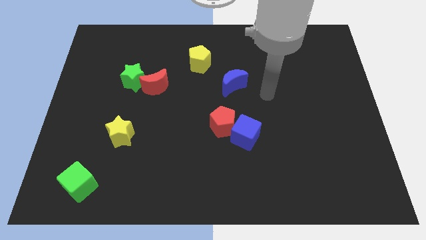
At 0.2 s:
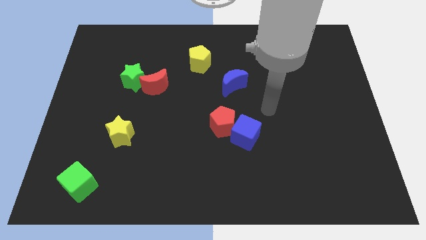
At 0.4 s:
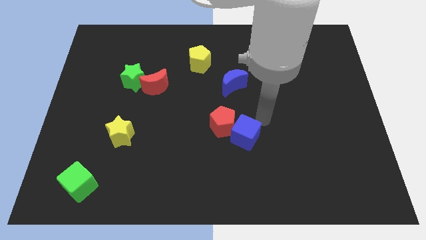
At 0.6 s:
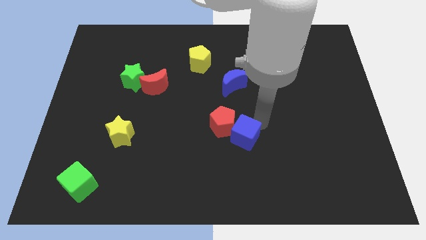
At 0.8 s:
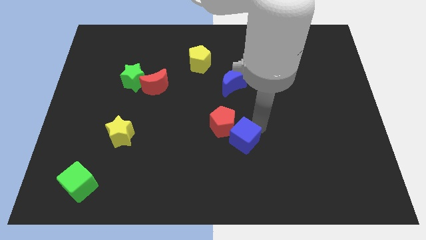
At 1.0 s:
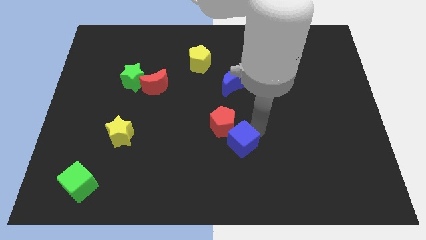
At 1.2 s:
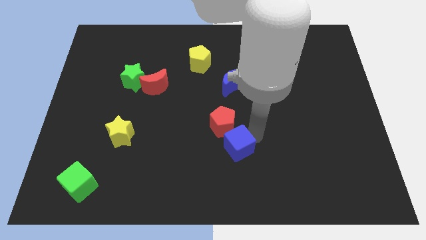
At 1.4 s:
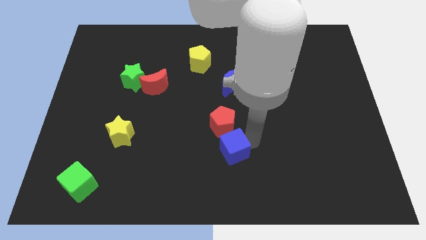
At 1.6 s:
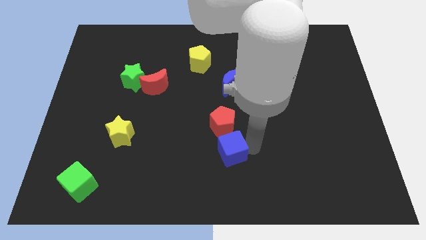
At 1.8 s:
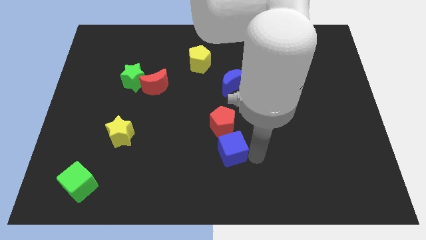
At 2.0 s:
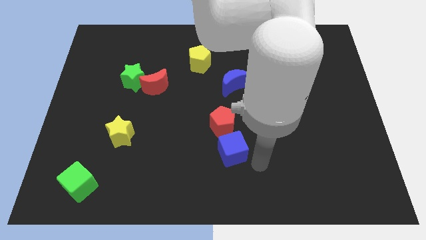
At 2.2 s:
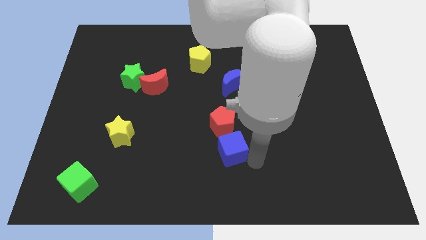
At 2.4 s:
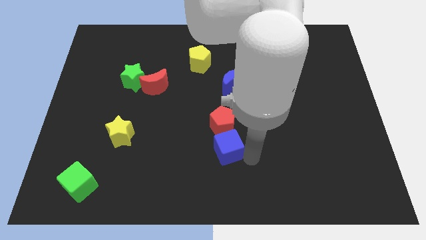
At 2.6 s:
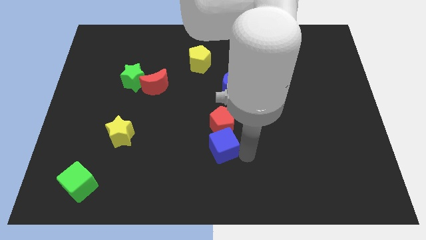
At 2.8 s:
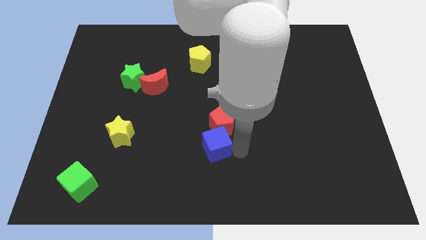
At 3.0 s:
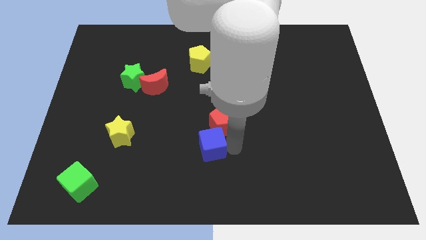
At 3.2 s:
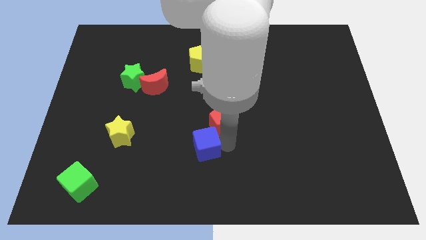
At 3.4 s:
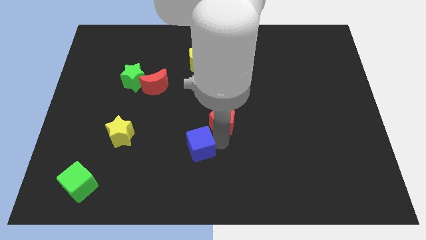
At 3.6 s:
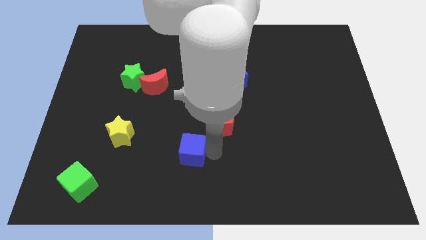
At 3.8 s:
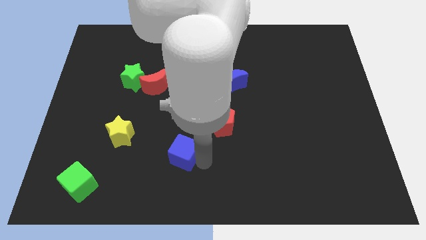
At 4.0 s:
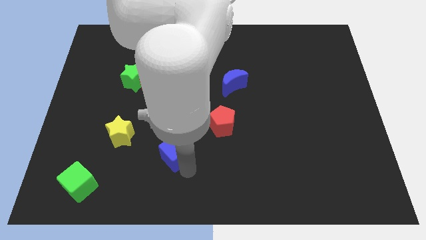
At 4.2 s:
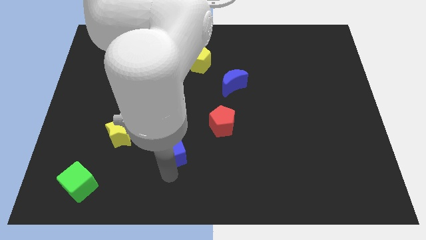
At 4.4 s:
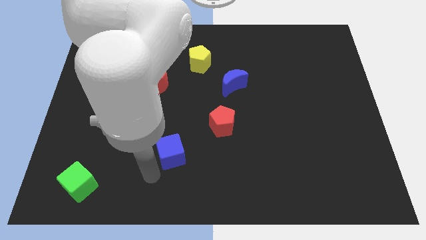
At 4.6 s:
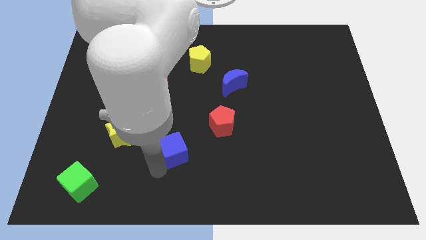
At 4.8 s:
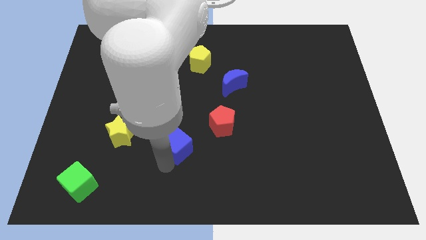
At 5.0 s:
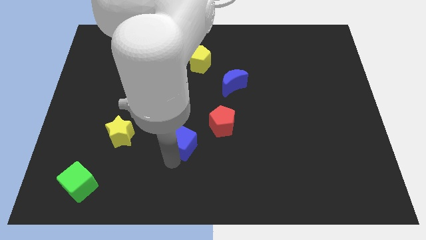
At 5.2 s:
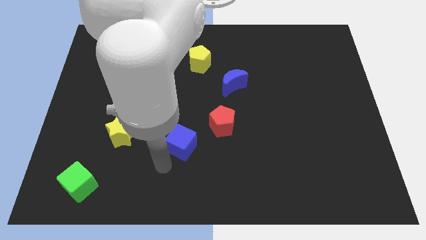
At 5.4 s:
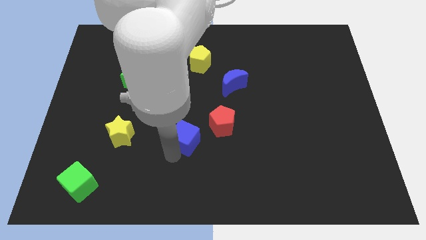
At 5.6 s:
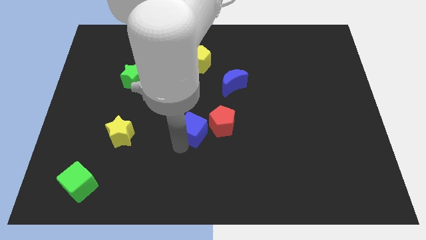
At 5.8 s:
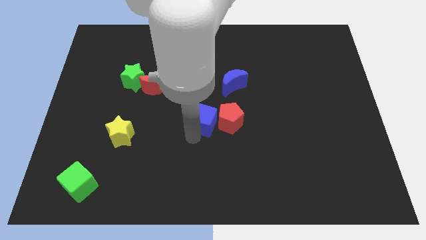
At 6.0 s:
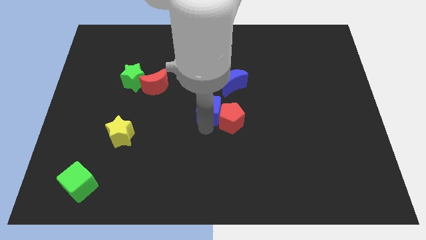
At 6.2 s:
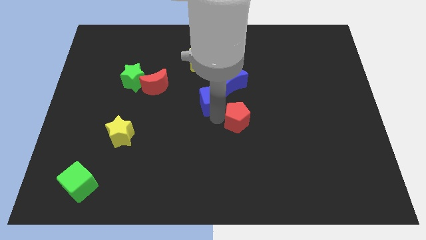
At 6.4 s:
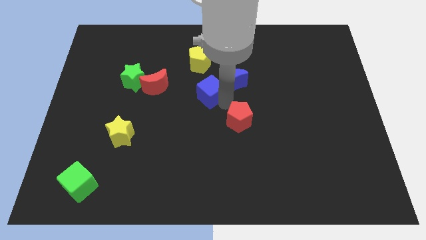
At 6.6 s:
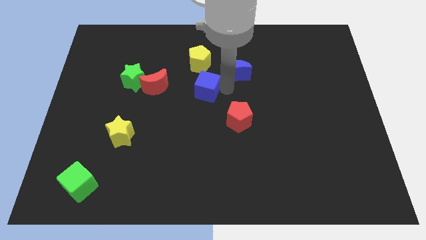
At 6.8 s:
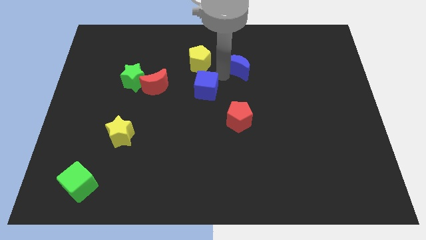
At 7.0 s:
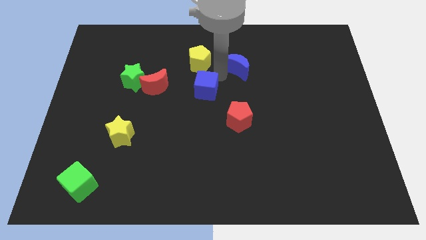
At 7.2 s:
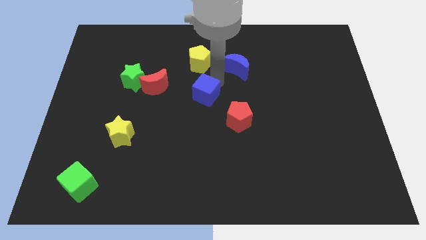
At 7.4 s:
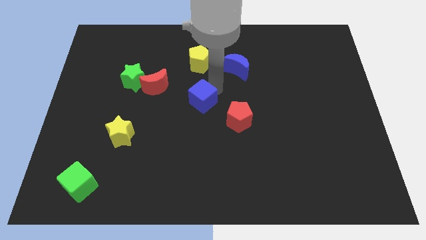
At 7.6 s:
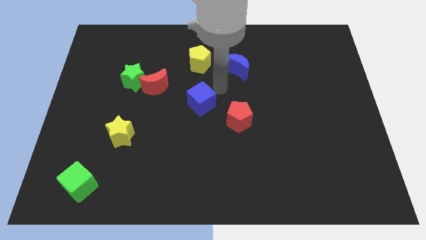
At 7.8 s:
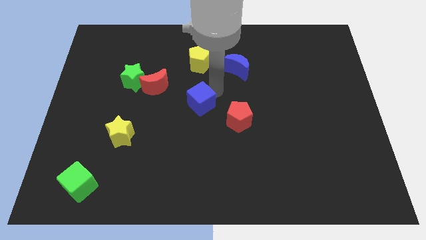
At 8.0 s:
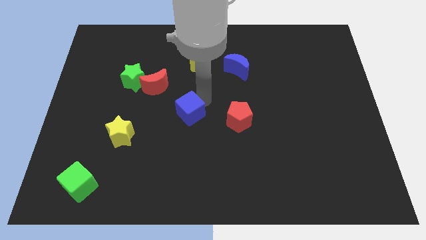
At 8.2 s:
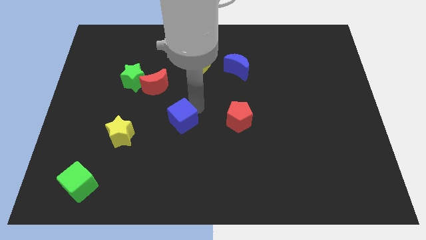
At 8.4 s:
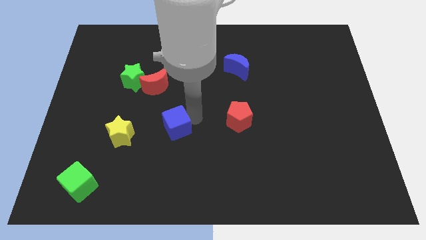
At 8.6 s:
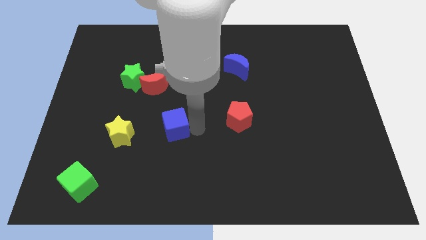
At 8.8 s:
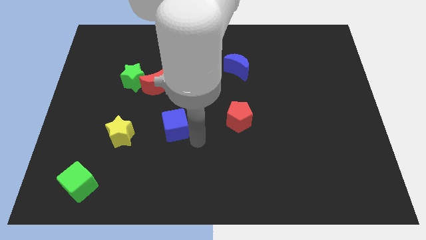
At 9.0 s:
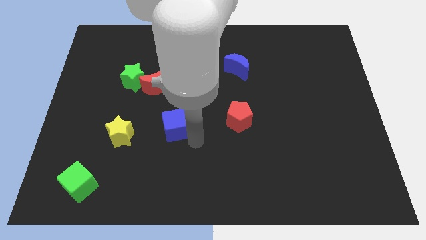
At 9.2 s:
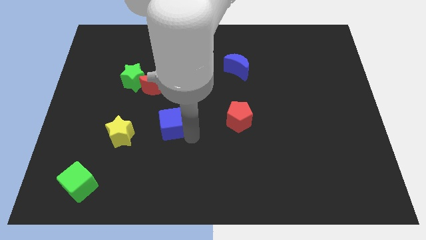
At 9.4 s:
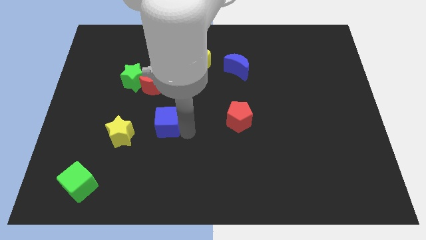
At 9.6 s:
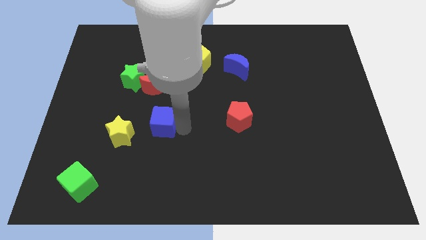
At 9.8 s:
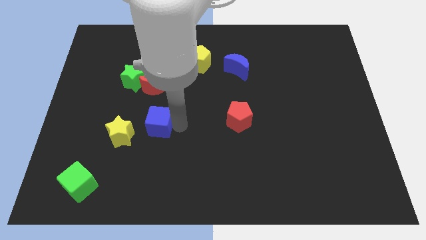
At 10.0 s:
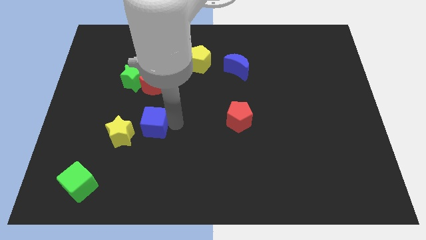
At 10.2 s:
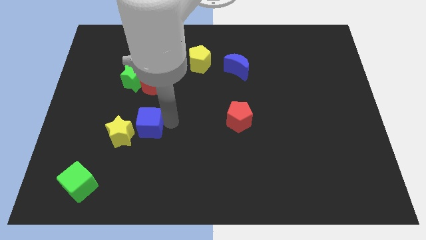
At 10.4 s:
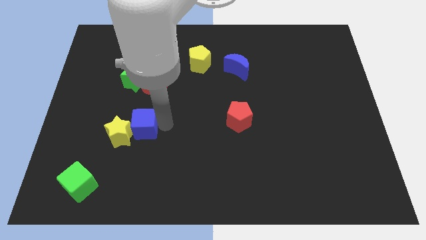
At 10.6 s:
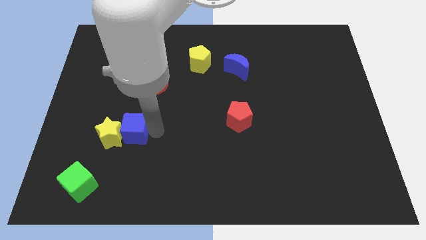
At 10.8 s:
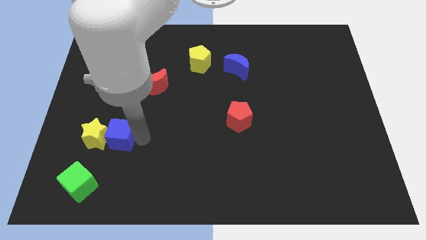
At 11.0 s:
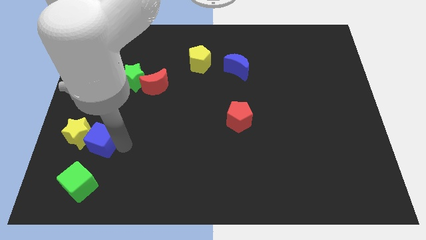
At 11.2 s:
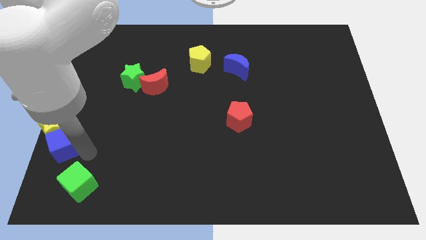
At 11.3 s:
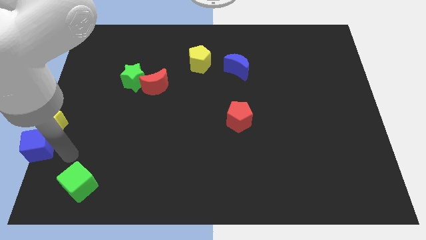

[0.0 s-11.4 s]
put the blue cube to the left side of the board

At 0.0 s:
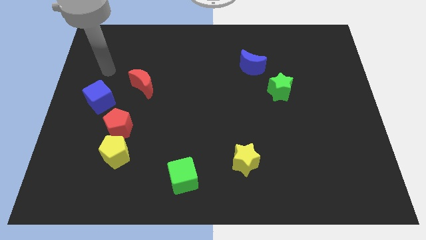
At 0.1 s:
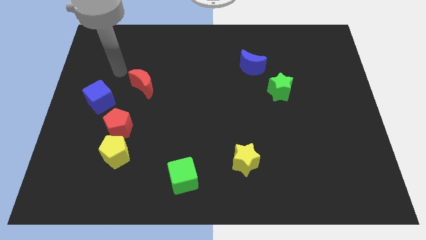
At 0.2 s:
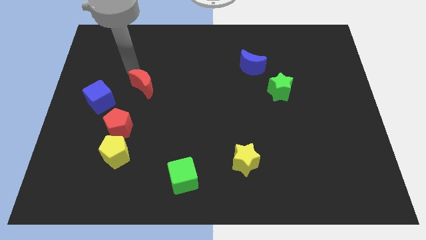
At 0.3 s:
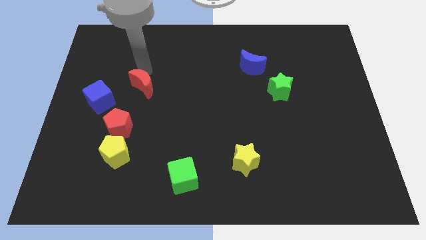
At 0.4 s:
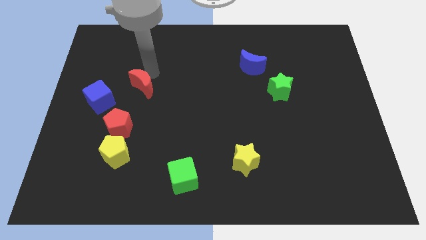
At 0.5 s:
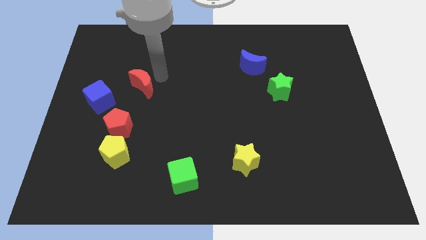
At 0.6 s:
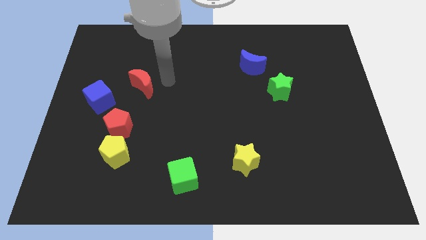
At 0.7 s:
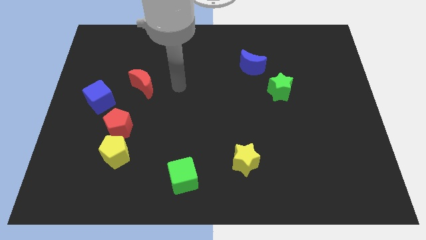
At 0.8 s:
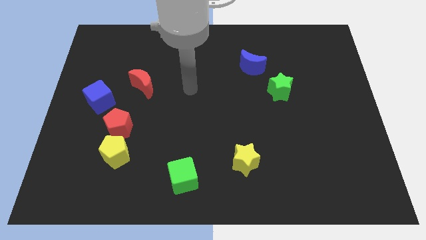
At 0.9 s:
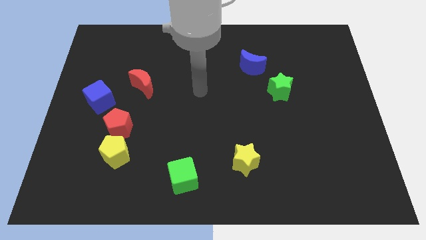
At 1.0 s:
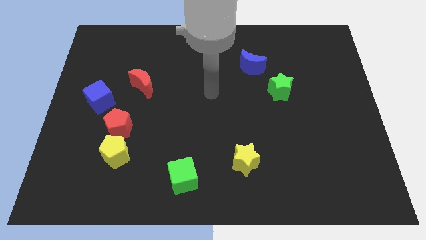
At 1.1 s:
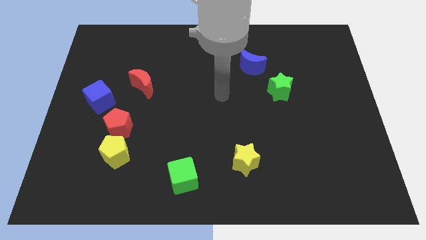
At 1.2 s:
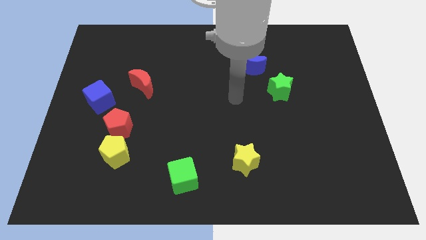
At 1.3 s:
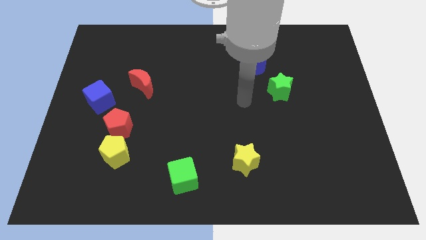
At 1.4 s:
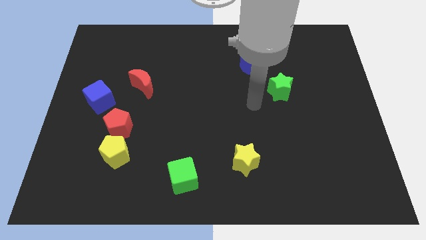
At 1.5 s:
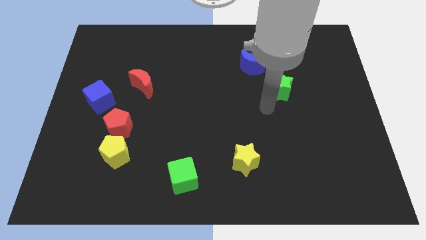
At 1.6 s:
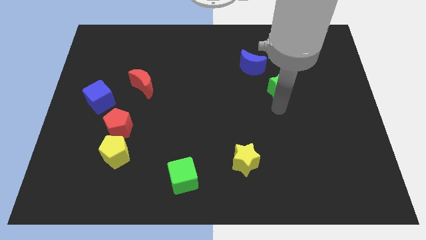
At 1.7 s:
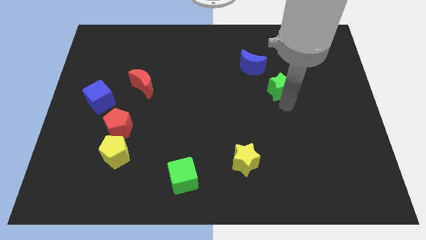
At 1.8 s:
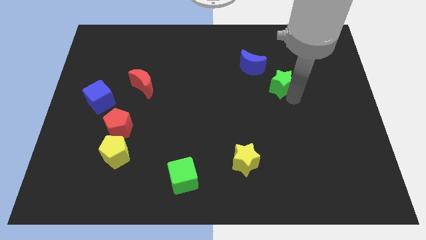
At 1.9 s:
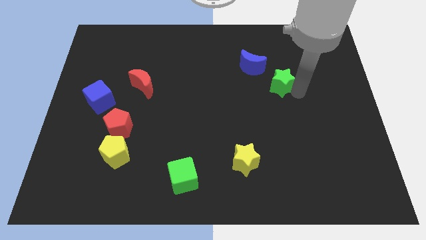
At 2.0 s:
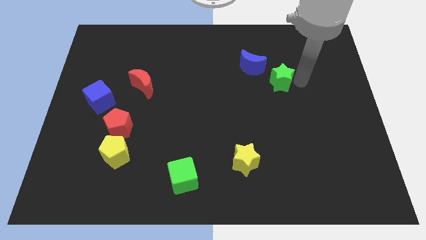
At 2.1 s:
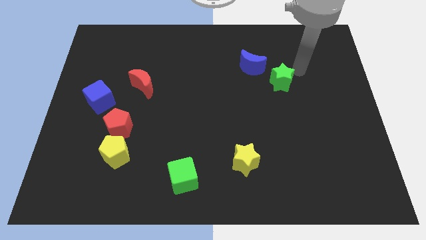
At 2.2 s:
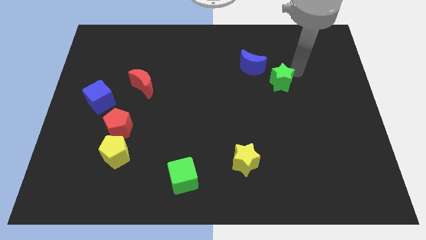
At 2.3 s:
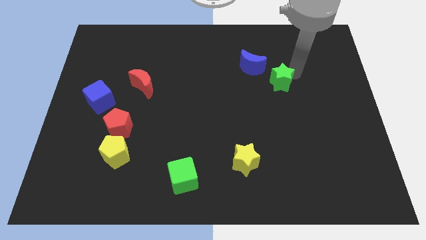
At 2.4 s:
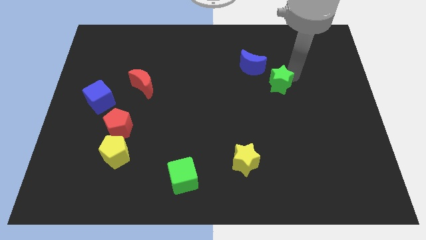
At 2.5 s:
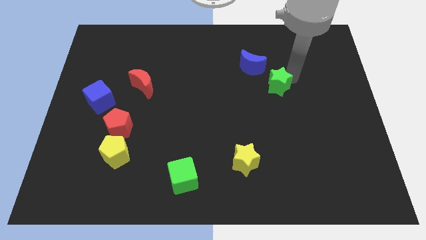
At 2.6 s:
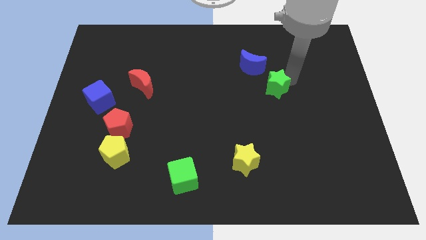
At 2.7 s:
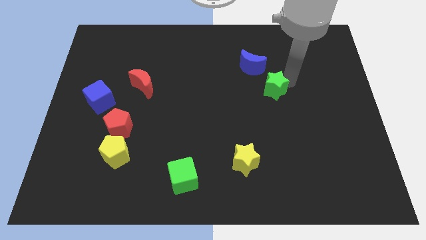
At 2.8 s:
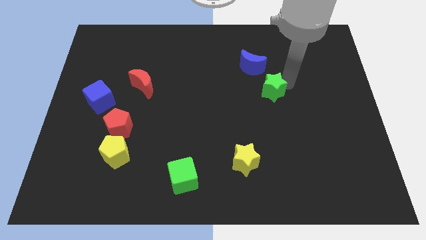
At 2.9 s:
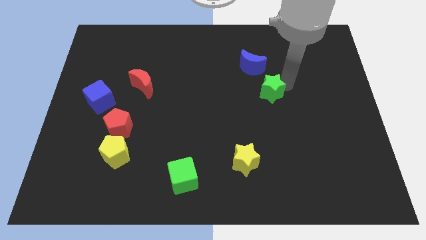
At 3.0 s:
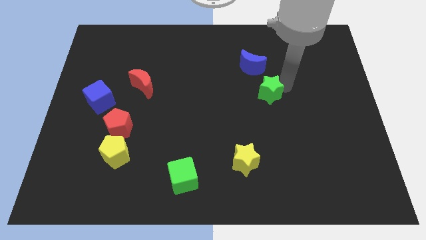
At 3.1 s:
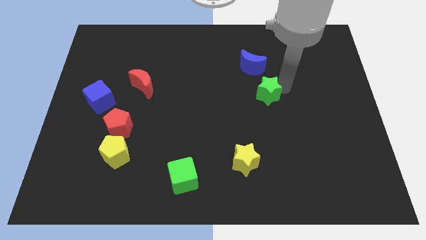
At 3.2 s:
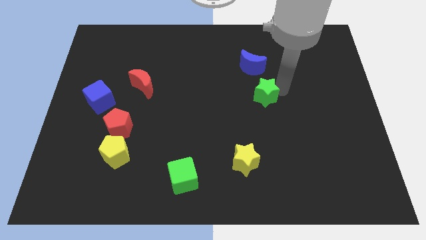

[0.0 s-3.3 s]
move the green star to the center of the board
